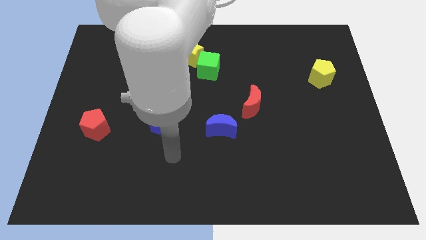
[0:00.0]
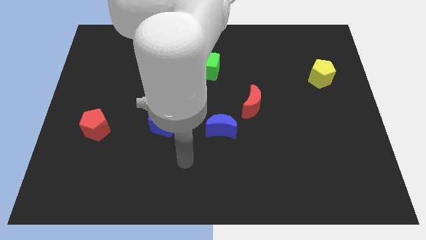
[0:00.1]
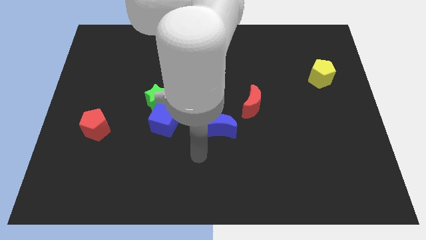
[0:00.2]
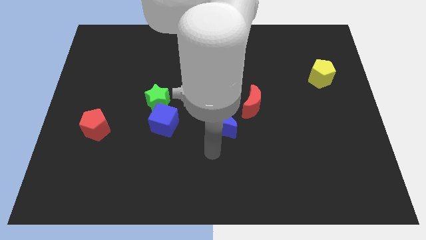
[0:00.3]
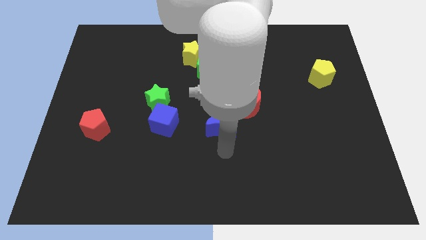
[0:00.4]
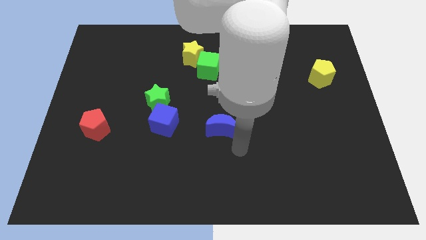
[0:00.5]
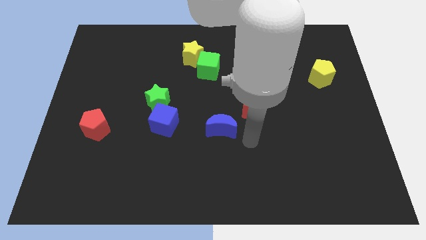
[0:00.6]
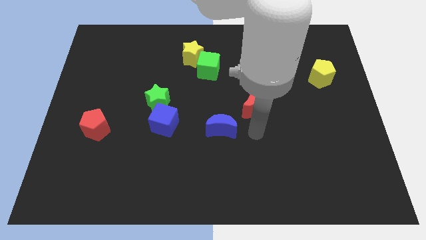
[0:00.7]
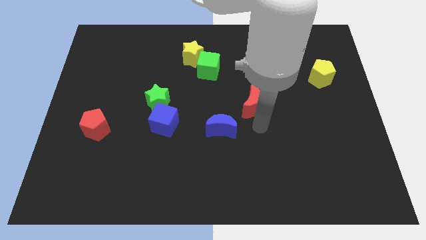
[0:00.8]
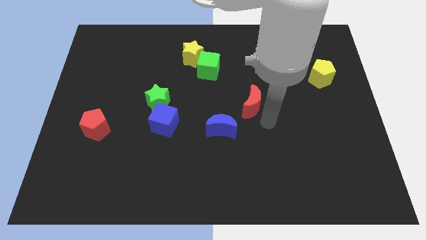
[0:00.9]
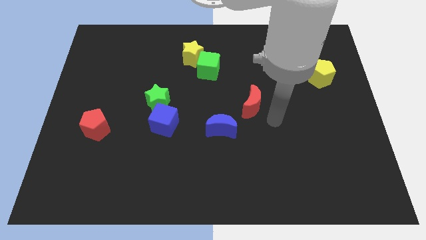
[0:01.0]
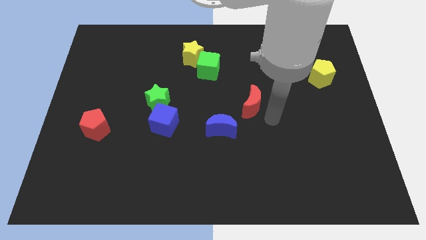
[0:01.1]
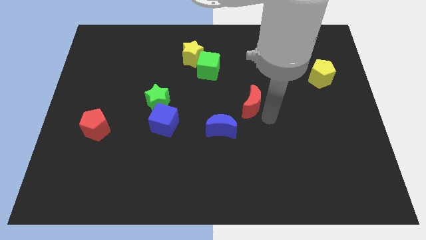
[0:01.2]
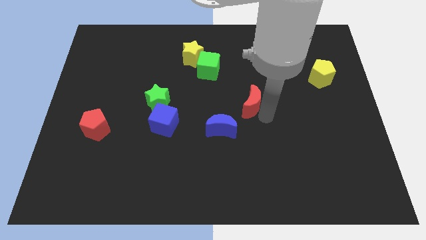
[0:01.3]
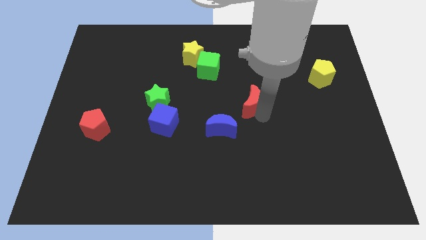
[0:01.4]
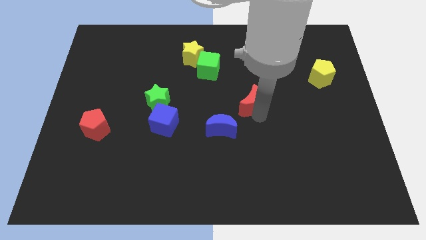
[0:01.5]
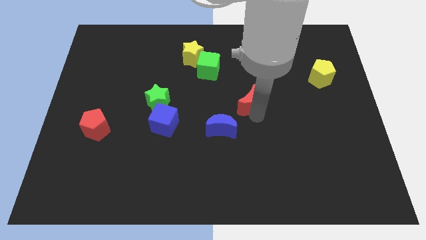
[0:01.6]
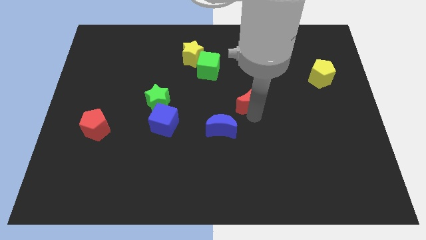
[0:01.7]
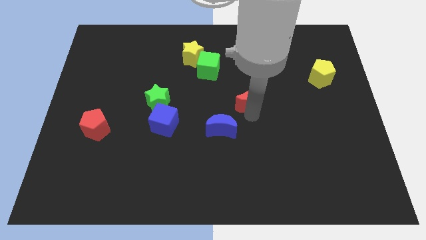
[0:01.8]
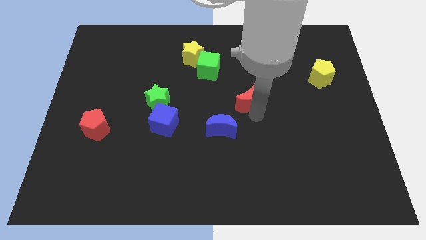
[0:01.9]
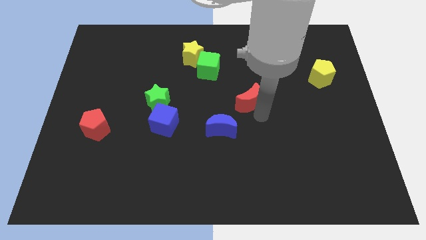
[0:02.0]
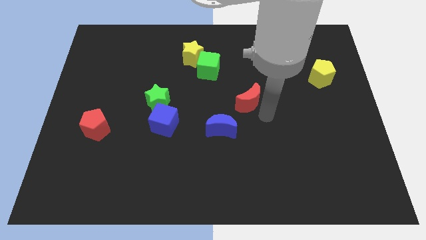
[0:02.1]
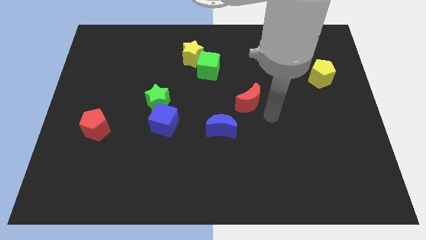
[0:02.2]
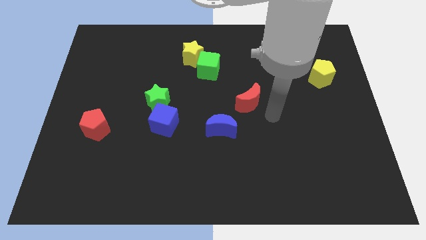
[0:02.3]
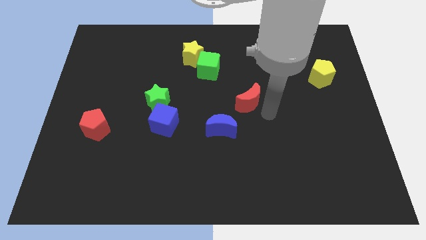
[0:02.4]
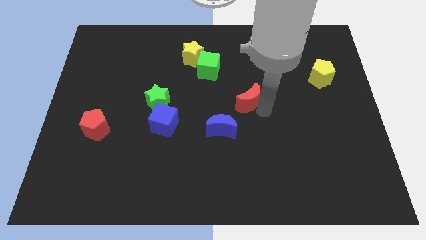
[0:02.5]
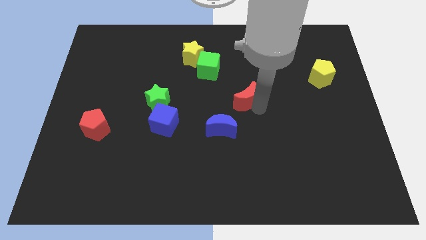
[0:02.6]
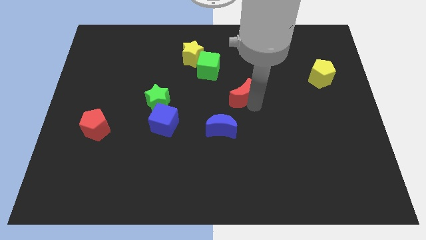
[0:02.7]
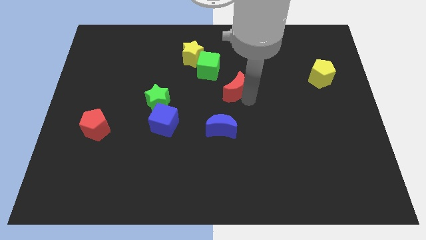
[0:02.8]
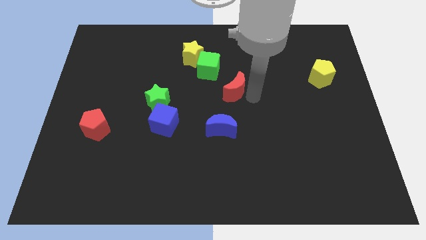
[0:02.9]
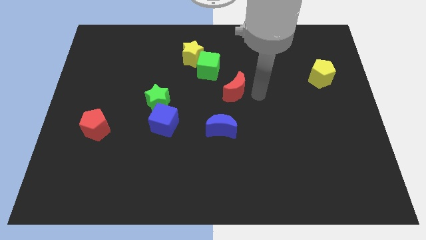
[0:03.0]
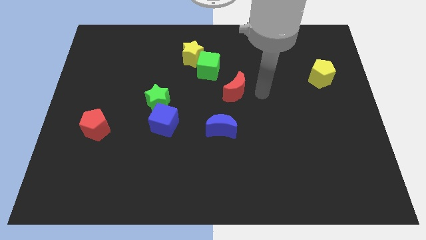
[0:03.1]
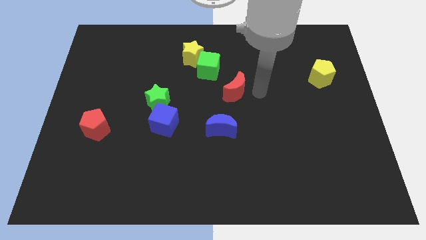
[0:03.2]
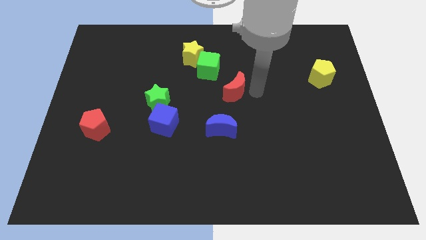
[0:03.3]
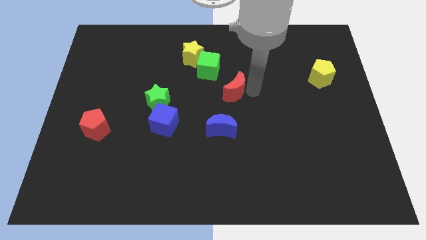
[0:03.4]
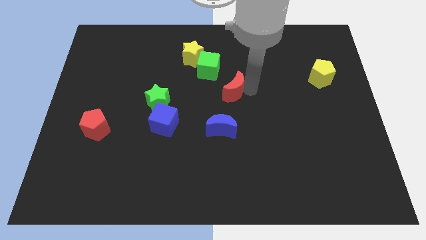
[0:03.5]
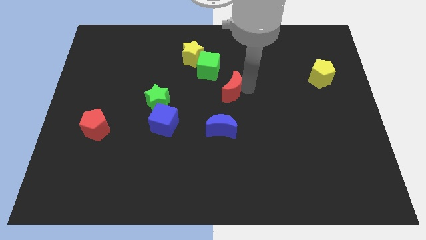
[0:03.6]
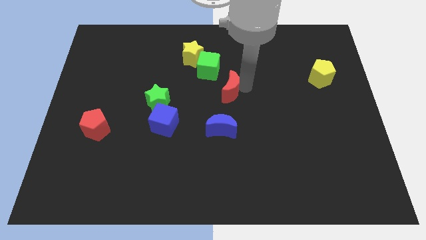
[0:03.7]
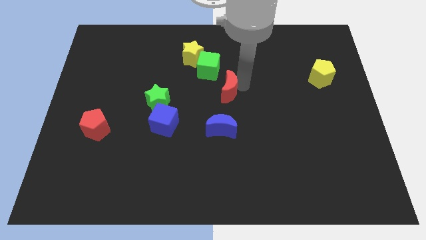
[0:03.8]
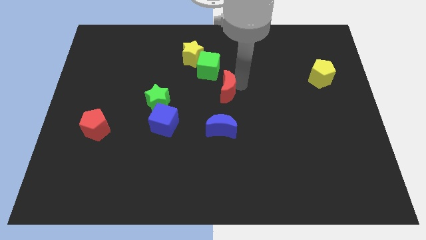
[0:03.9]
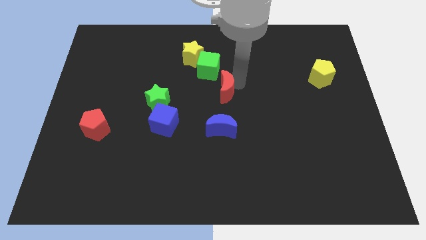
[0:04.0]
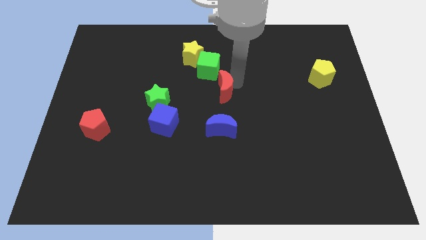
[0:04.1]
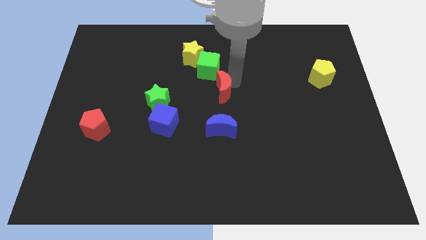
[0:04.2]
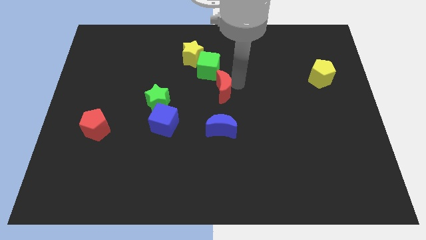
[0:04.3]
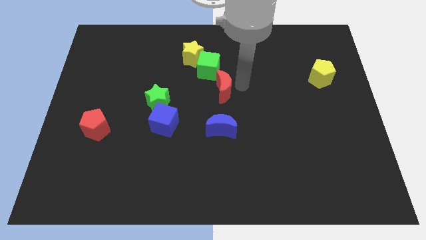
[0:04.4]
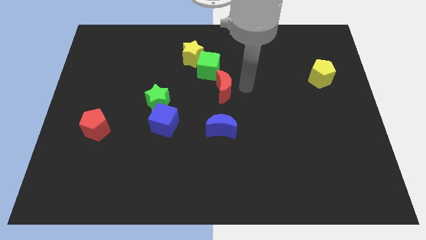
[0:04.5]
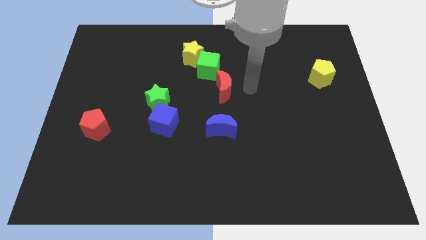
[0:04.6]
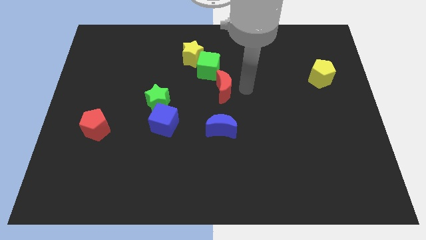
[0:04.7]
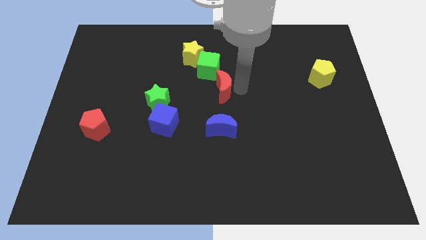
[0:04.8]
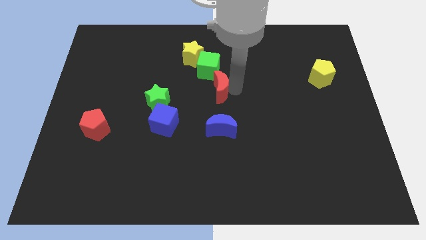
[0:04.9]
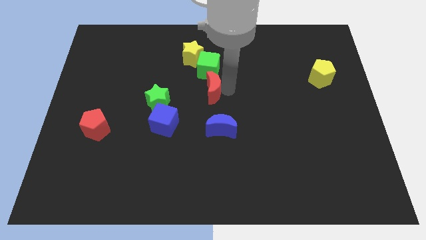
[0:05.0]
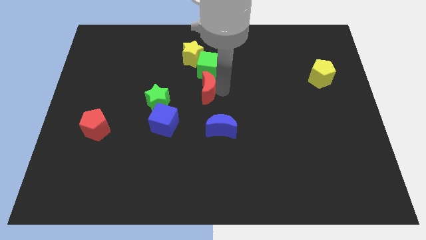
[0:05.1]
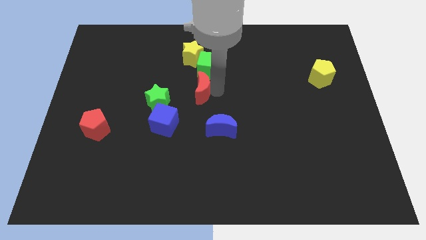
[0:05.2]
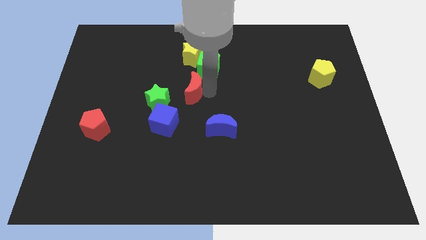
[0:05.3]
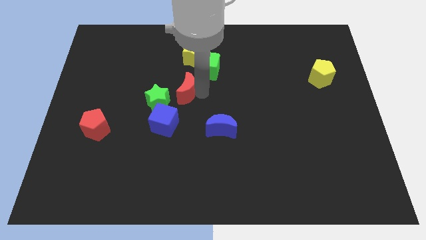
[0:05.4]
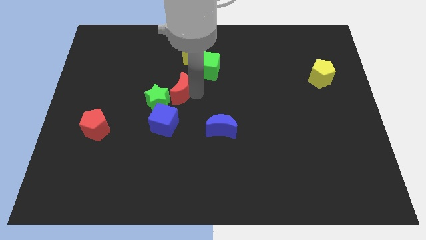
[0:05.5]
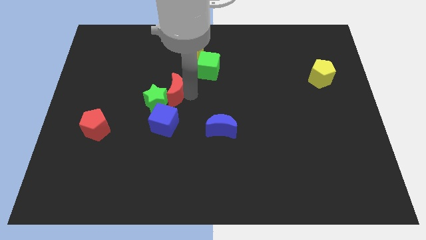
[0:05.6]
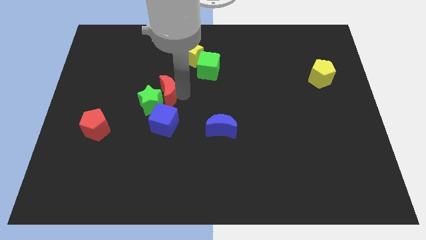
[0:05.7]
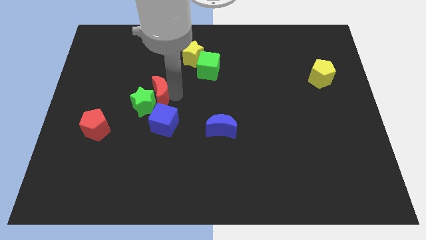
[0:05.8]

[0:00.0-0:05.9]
slide the red moon to the left

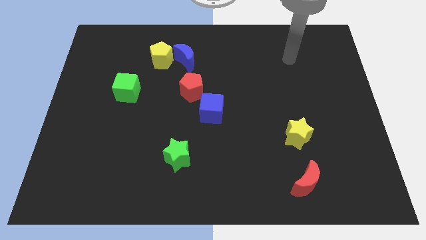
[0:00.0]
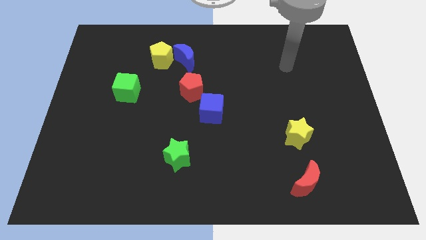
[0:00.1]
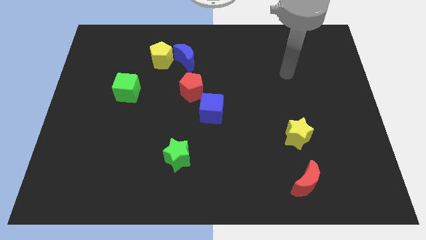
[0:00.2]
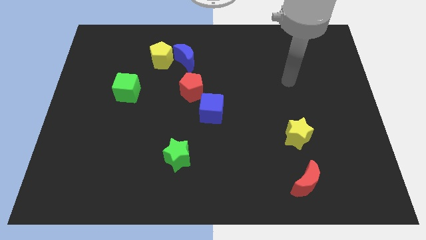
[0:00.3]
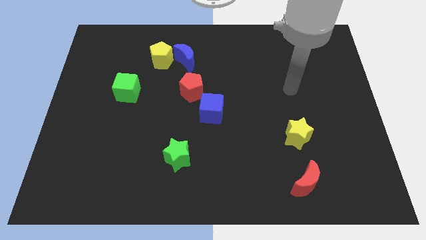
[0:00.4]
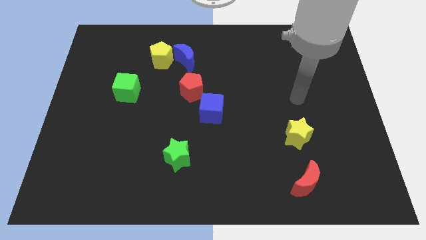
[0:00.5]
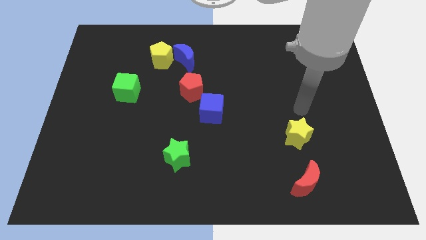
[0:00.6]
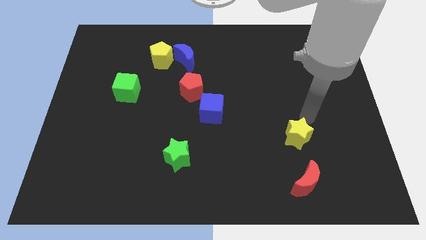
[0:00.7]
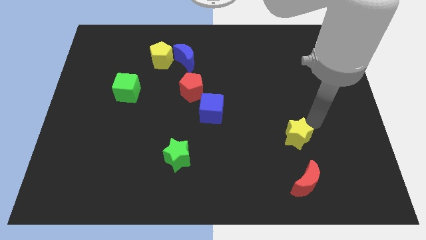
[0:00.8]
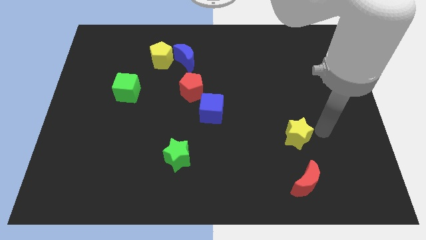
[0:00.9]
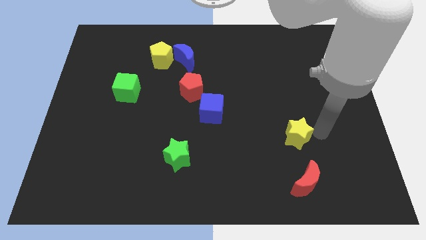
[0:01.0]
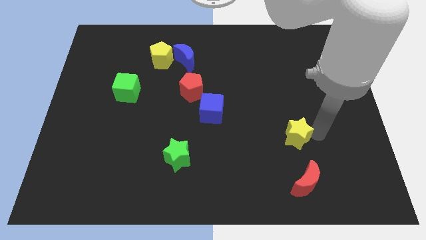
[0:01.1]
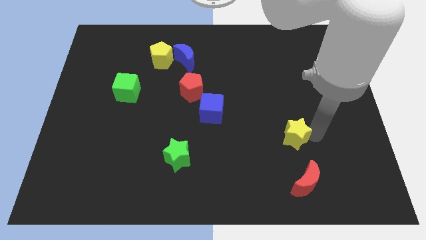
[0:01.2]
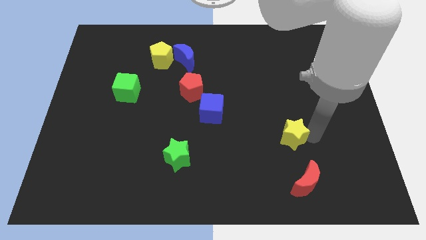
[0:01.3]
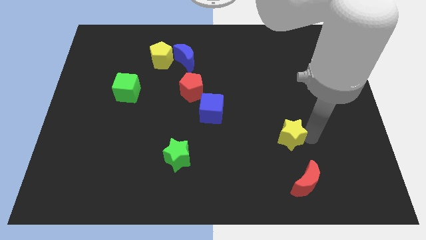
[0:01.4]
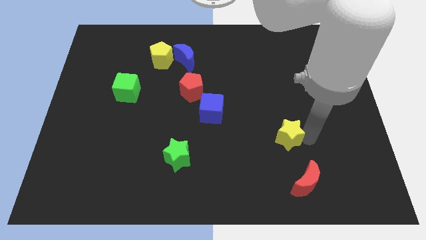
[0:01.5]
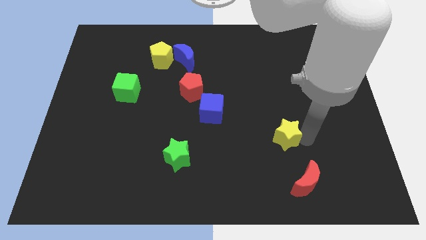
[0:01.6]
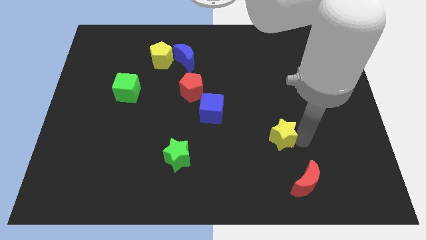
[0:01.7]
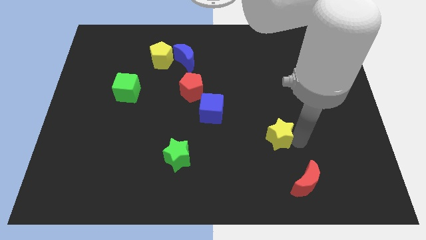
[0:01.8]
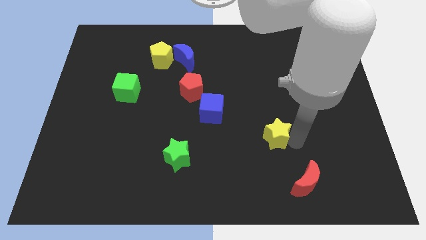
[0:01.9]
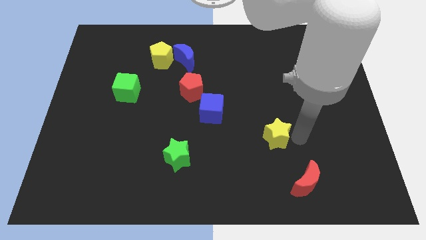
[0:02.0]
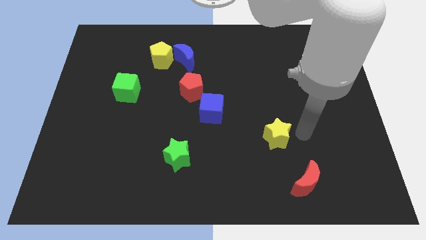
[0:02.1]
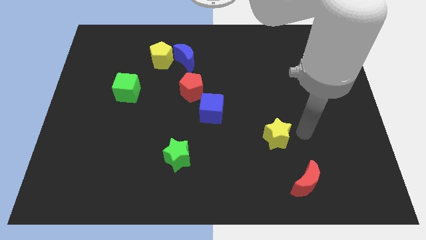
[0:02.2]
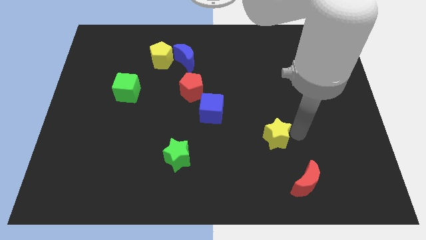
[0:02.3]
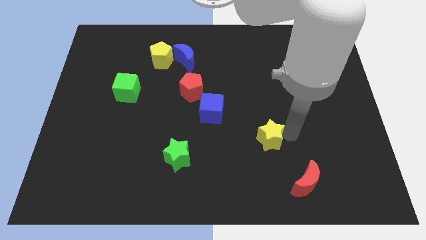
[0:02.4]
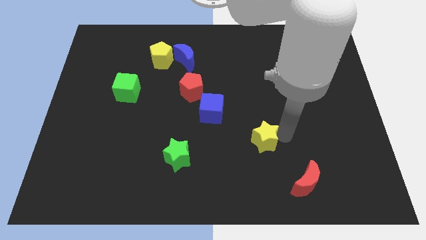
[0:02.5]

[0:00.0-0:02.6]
move the yellow star a little bit to the left
